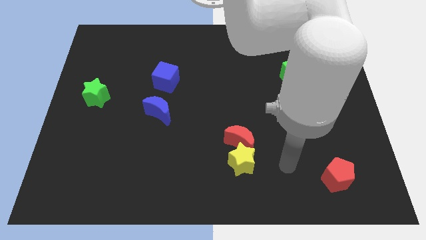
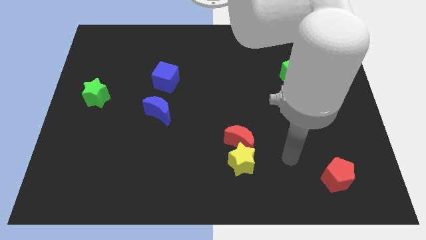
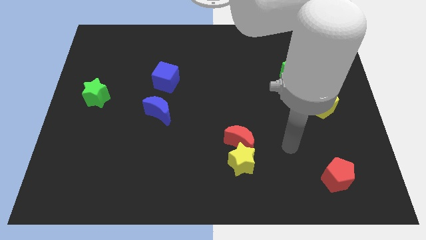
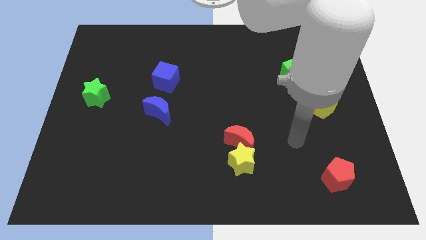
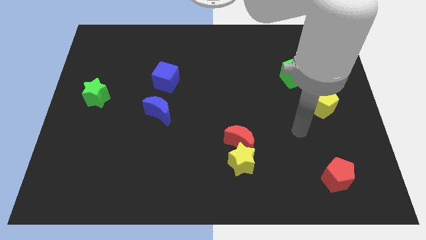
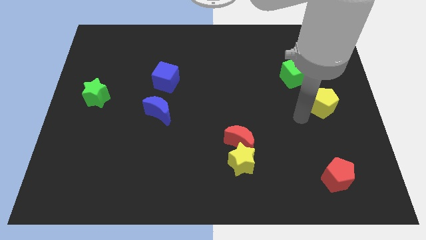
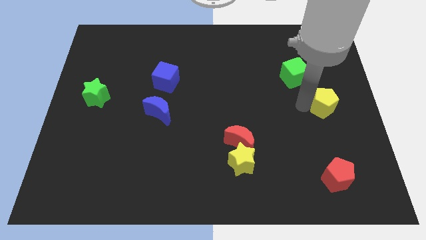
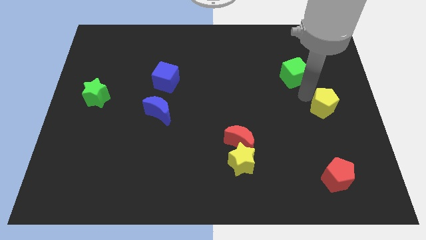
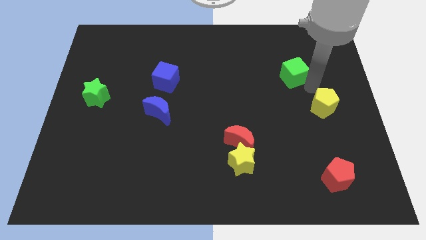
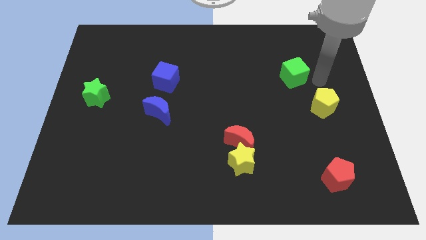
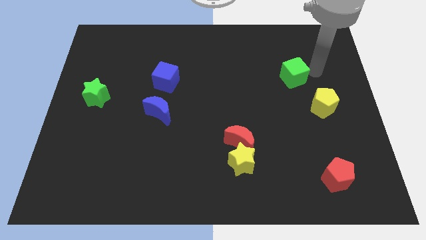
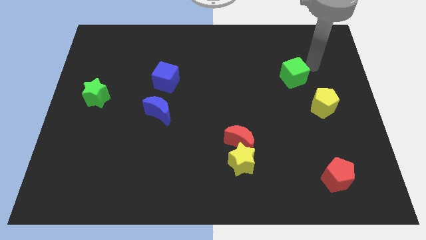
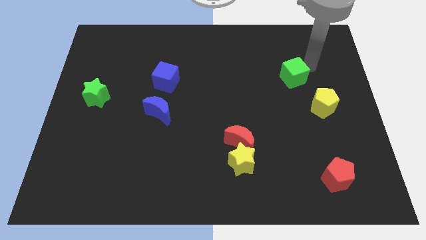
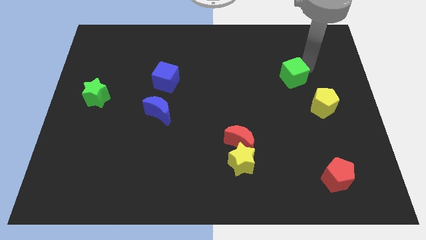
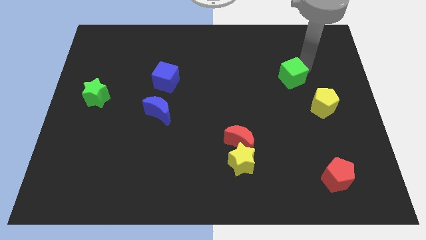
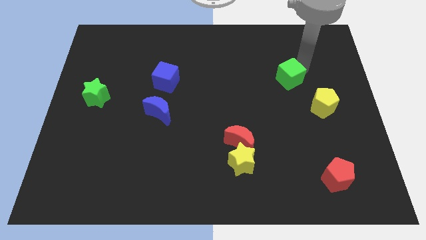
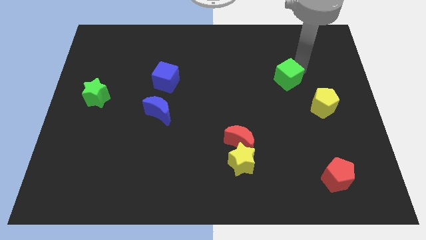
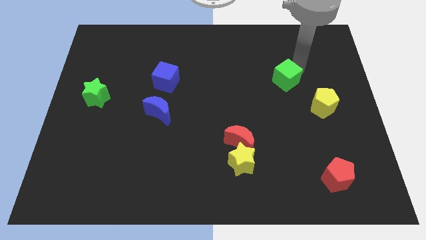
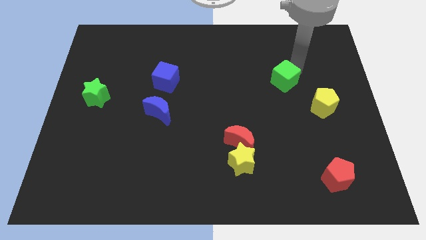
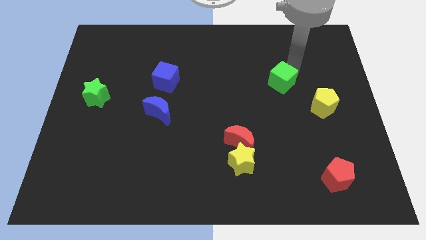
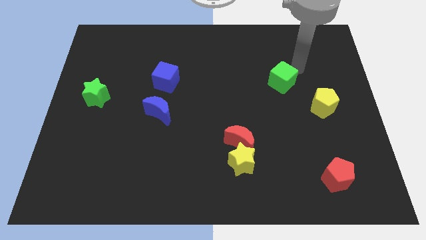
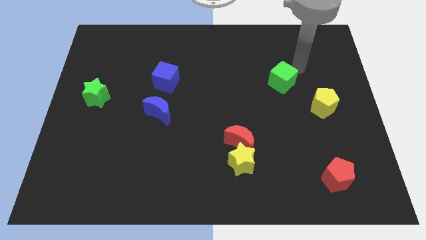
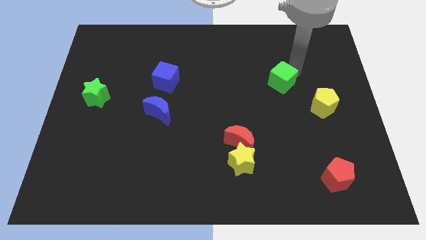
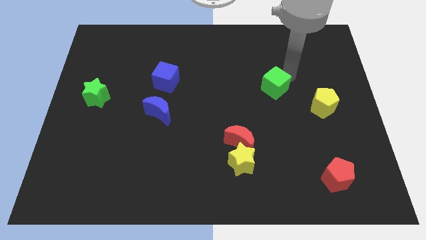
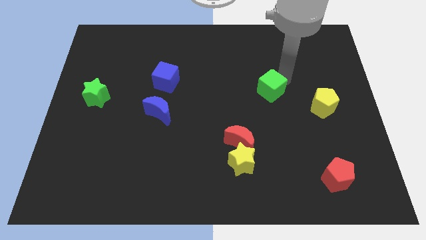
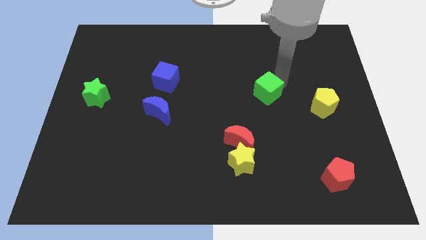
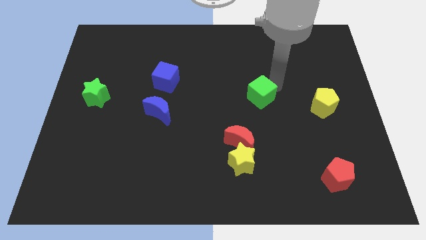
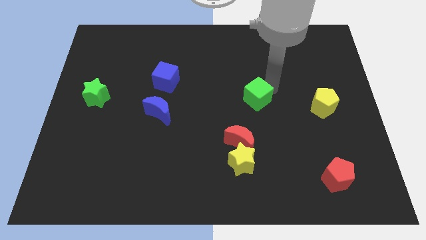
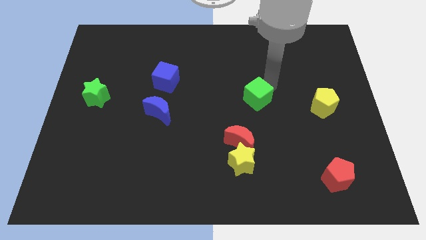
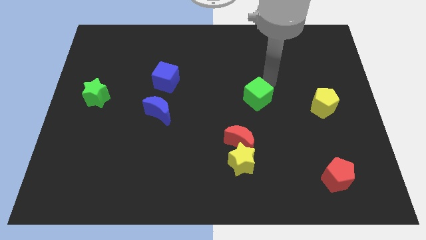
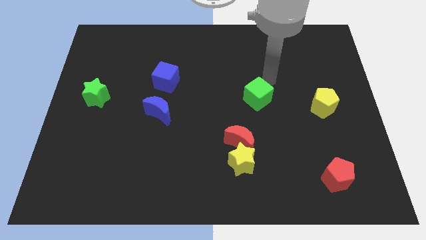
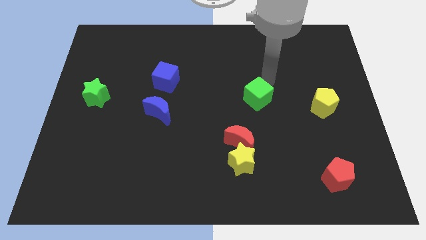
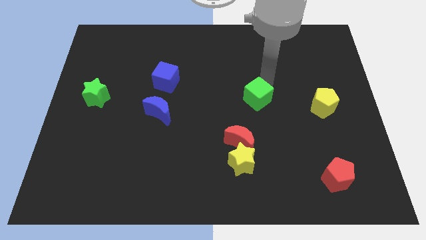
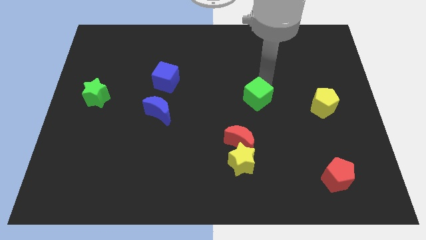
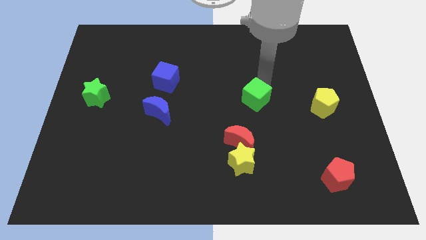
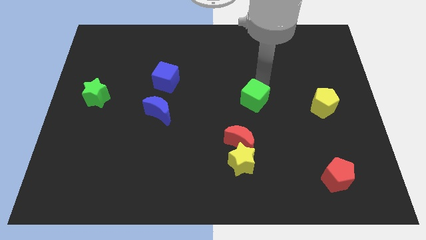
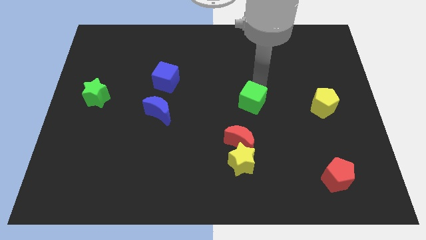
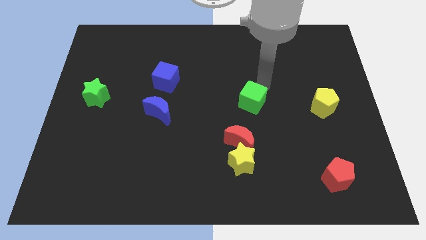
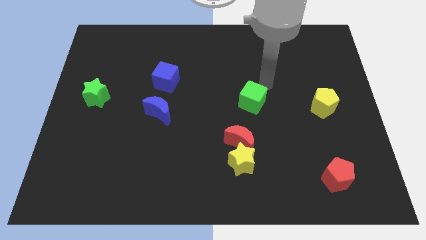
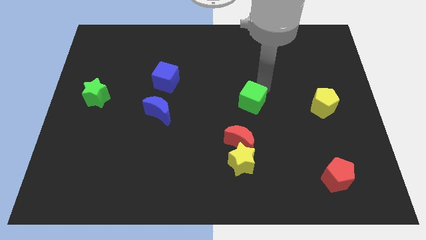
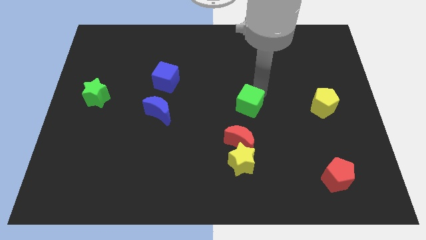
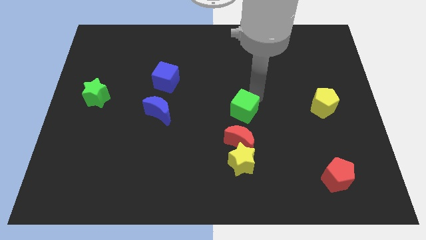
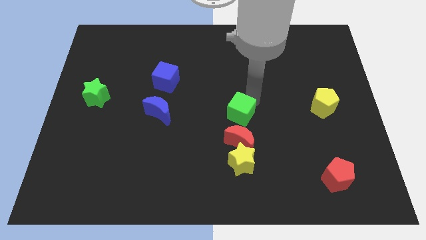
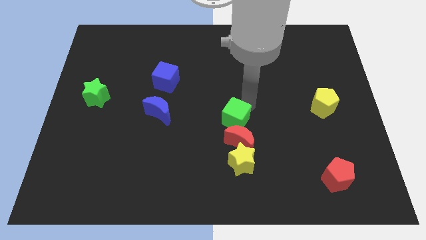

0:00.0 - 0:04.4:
move the green cube down and then to the left

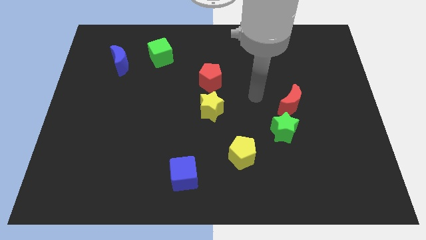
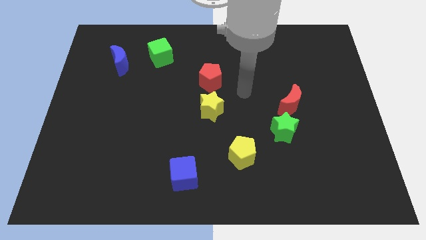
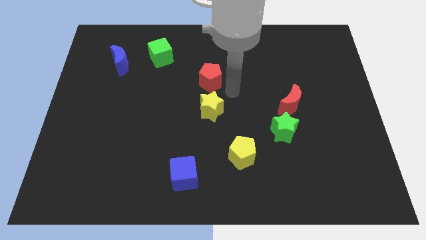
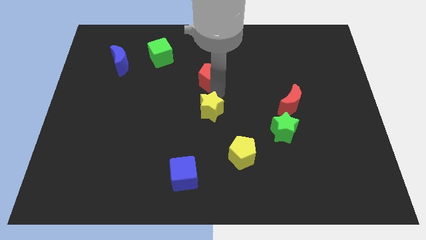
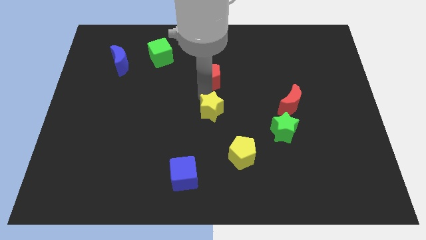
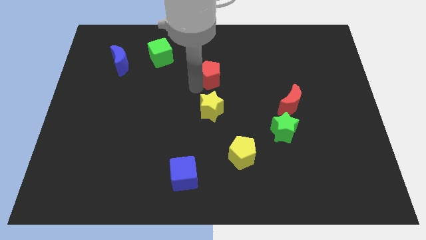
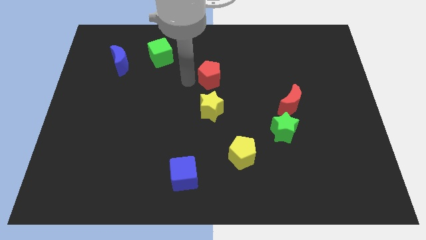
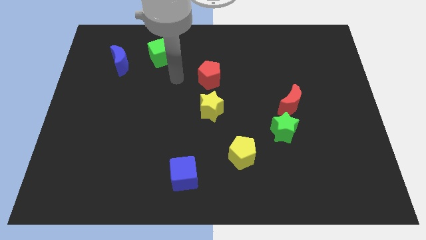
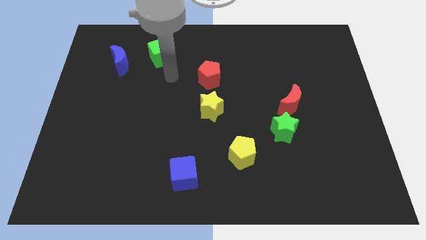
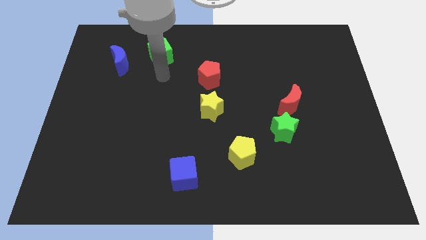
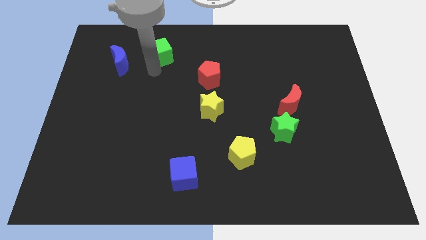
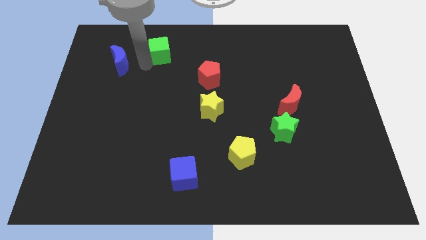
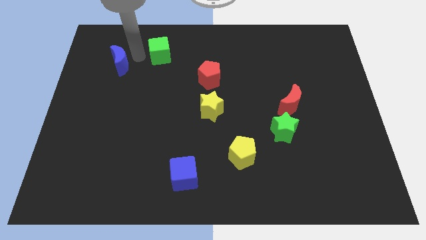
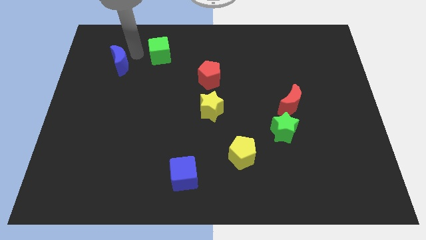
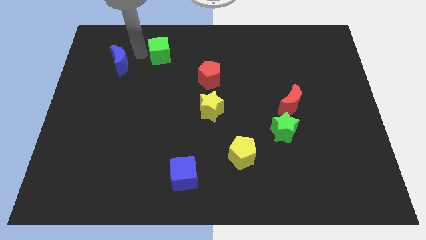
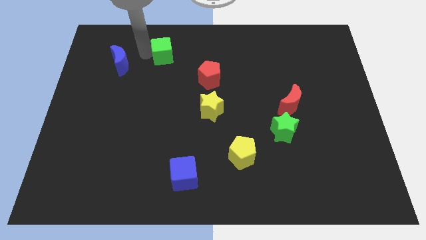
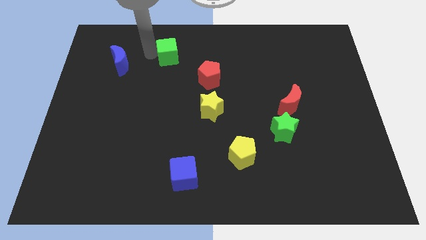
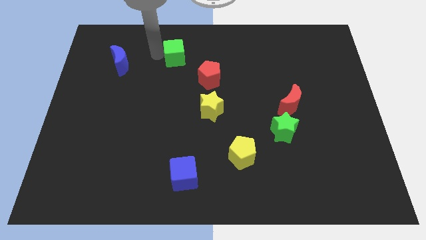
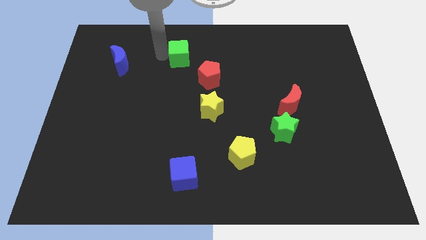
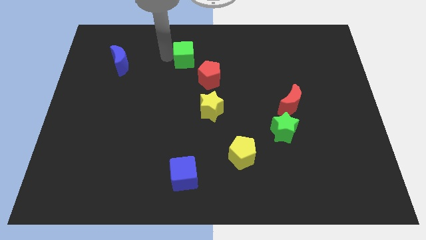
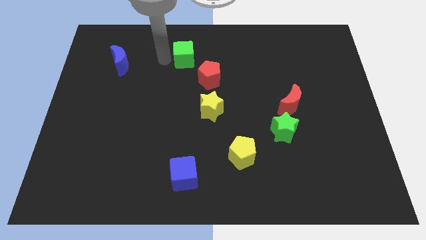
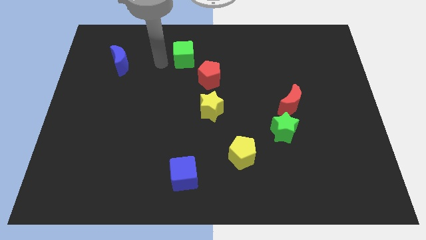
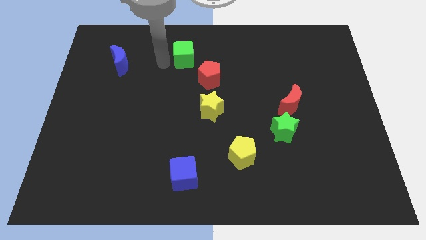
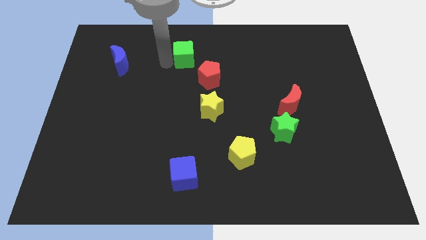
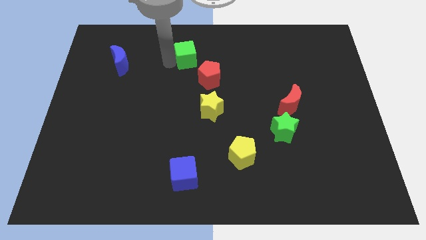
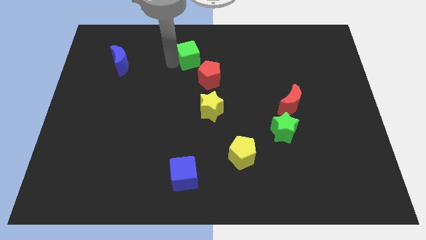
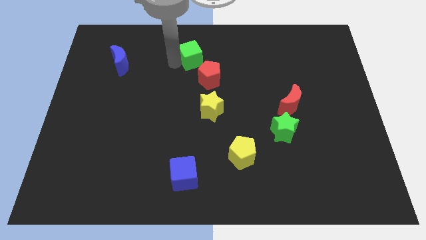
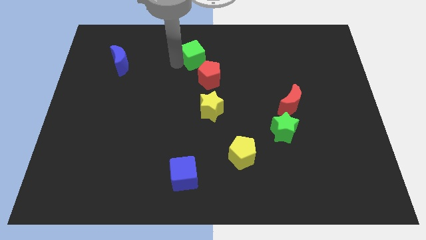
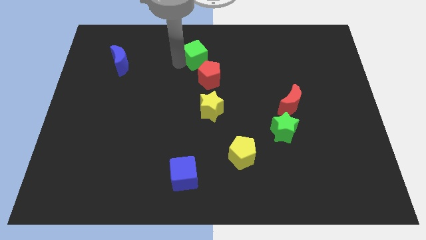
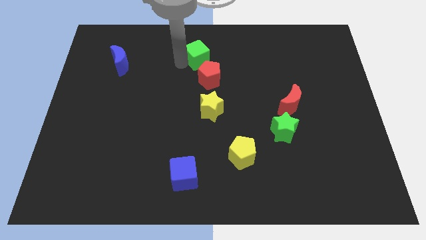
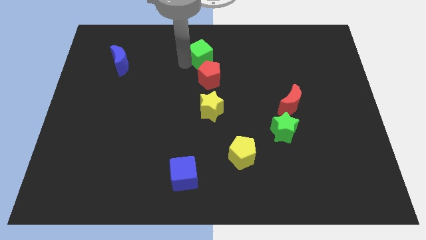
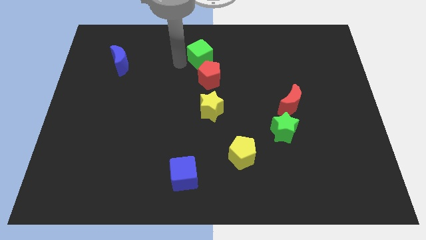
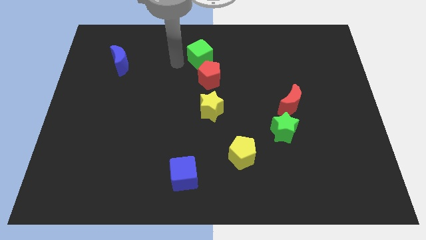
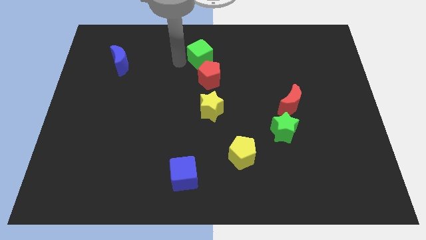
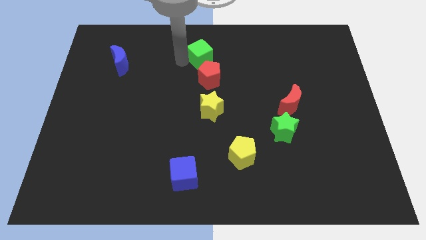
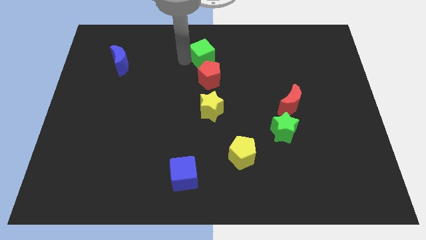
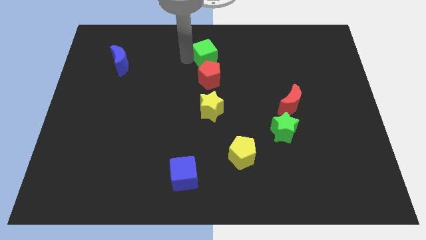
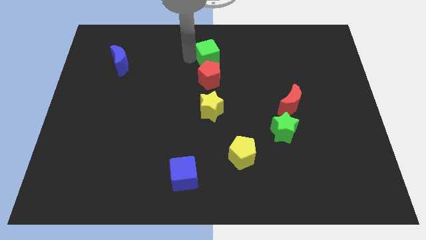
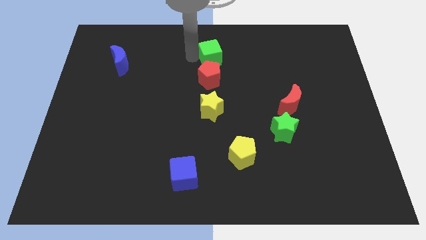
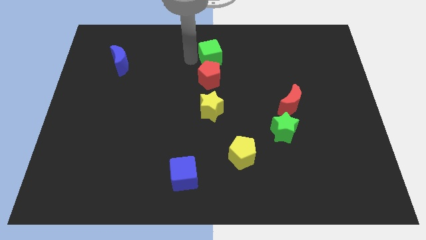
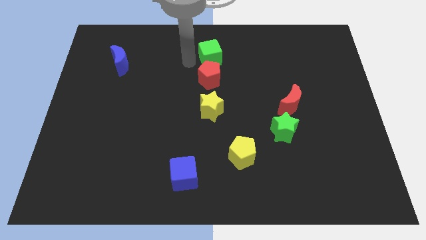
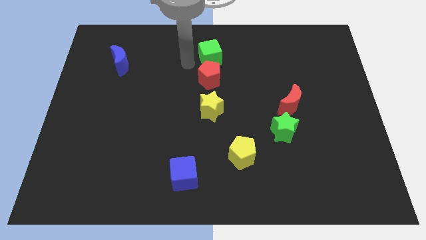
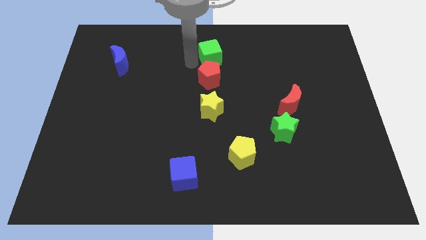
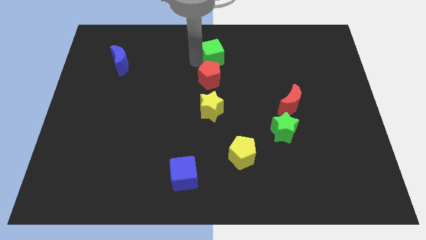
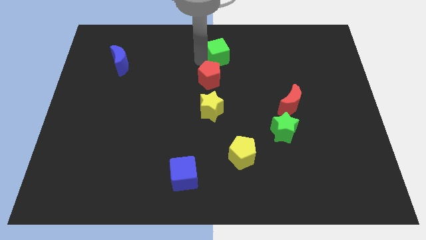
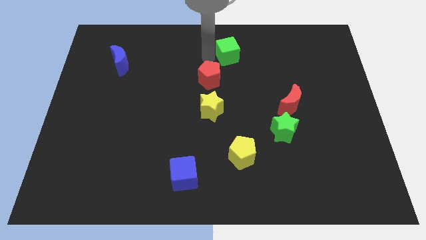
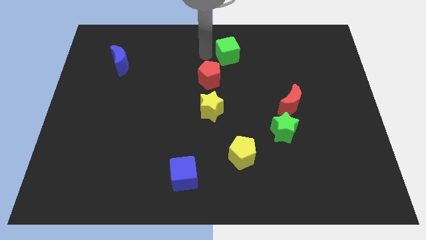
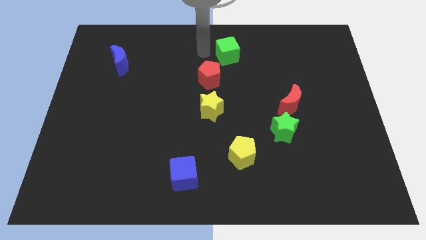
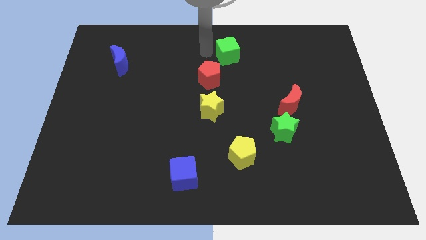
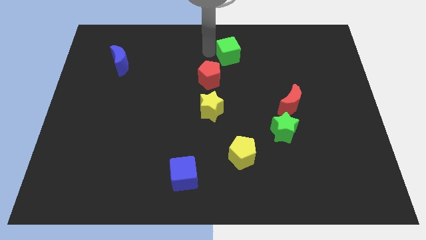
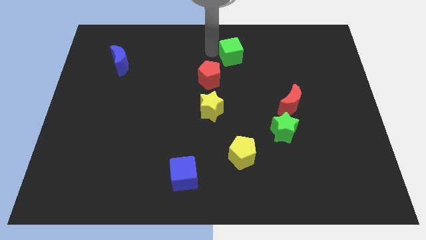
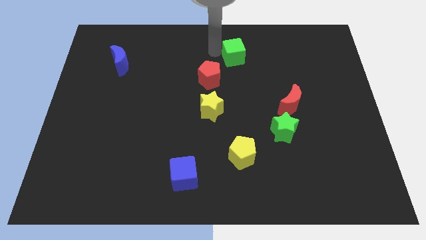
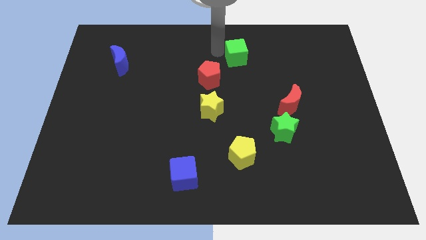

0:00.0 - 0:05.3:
slide the green cube right
